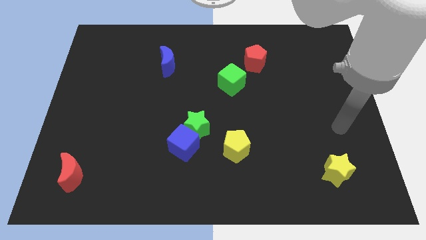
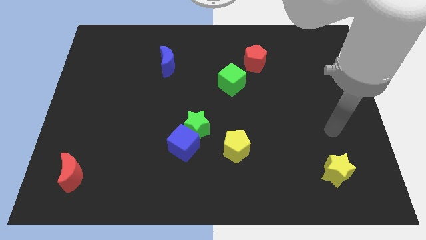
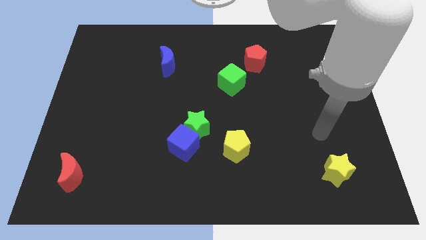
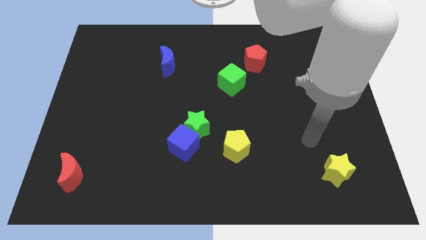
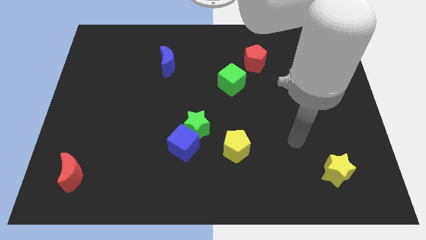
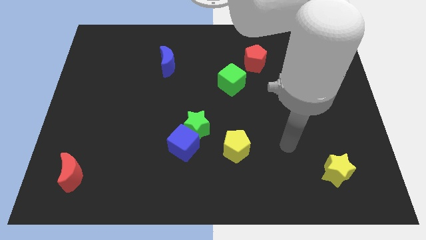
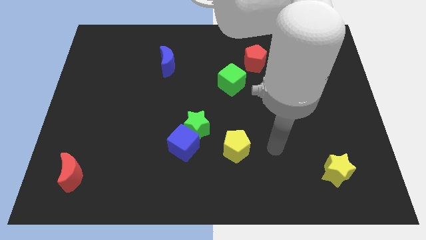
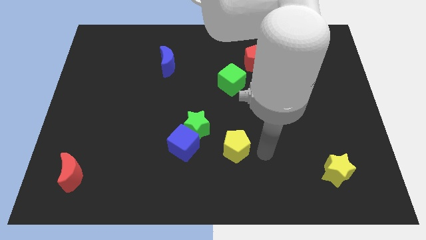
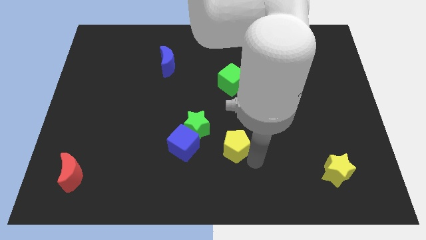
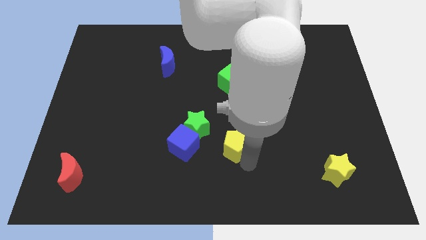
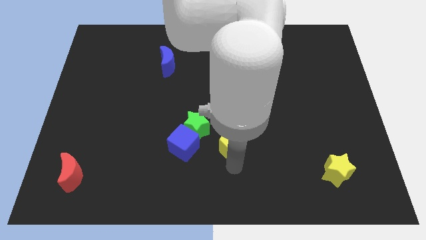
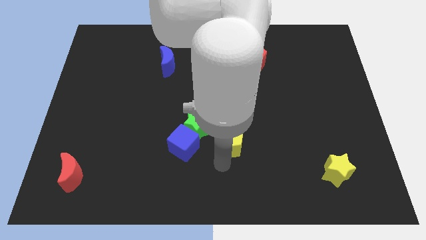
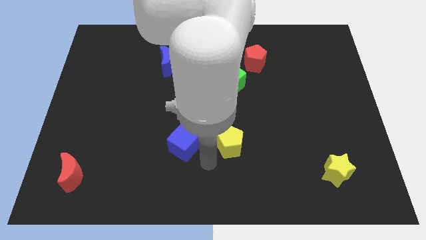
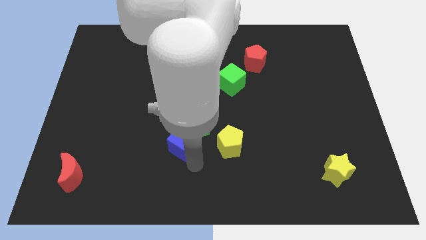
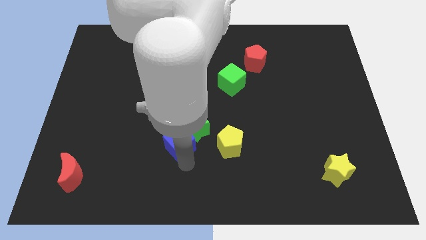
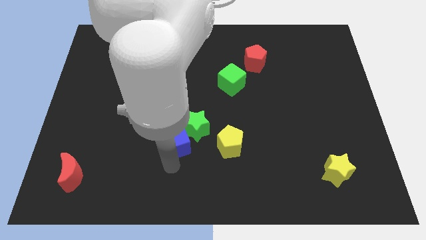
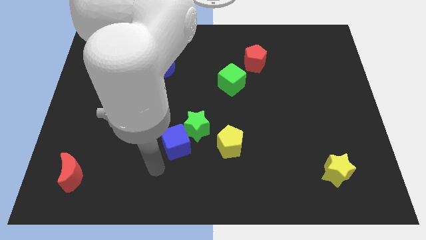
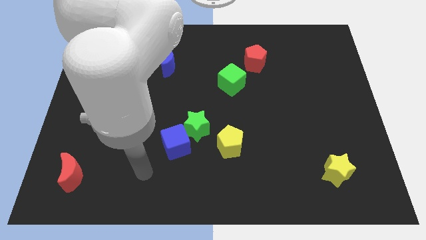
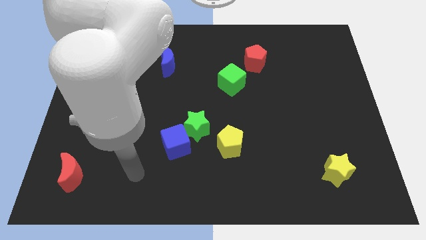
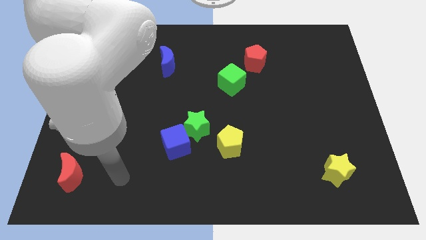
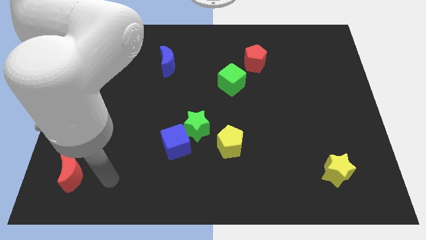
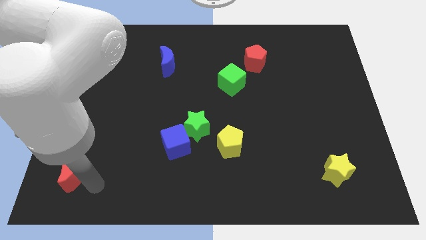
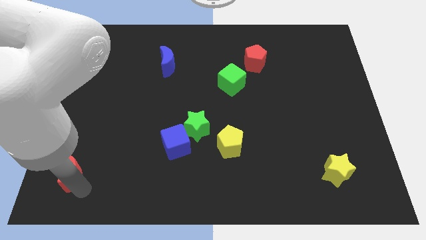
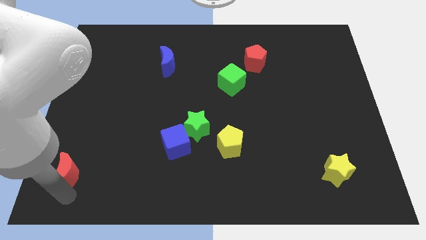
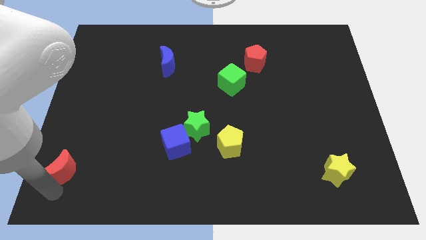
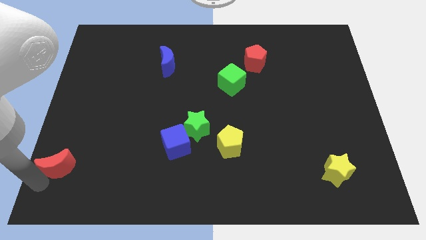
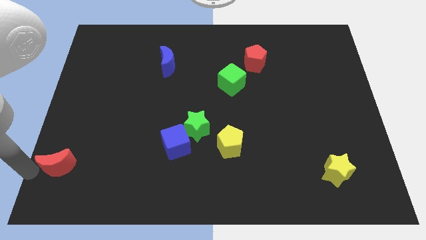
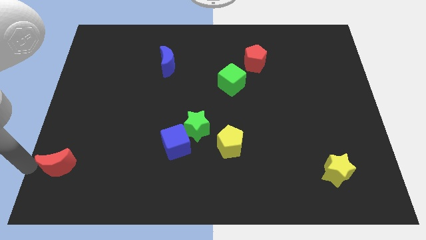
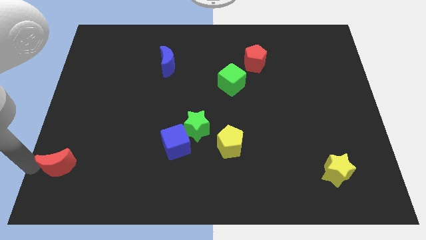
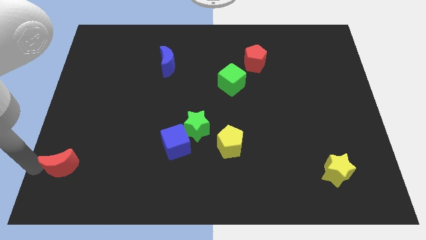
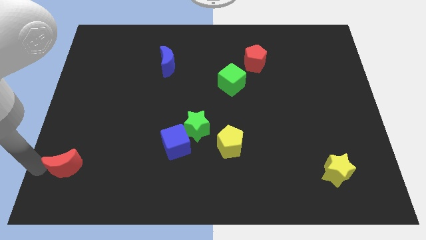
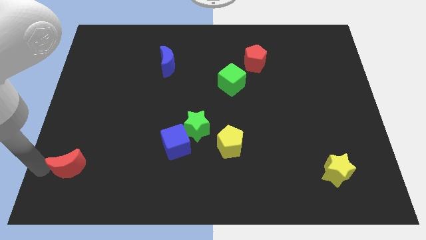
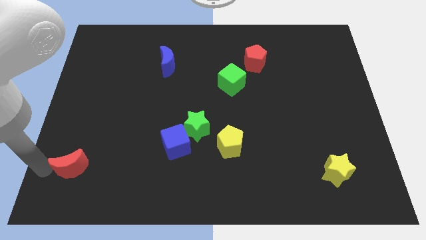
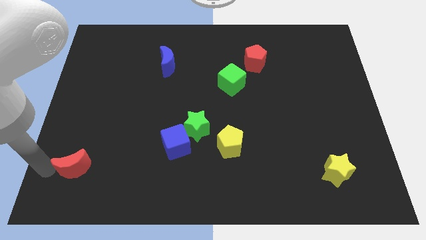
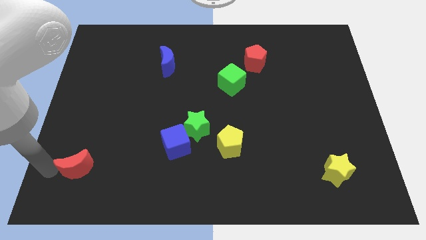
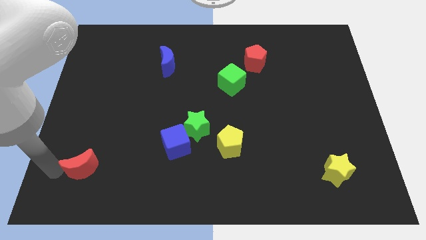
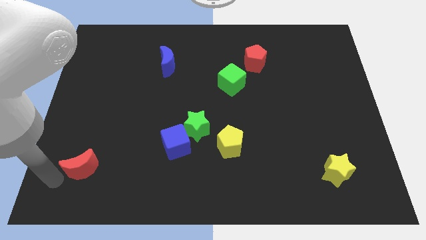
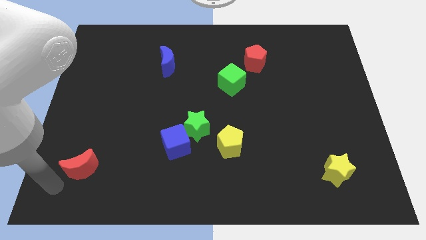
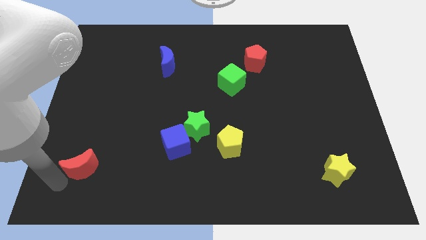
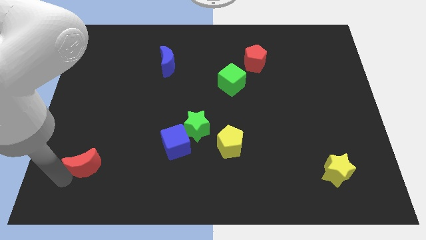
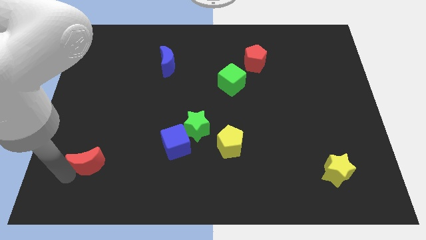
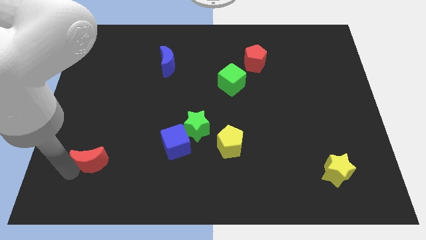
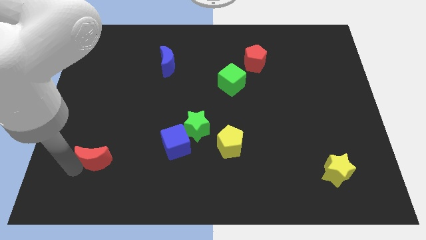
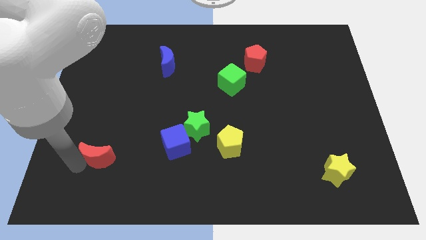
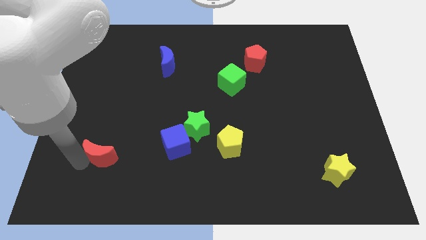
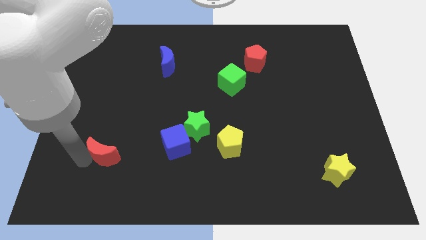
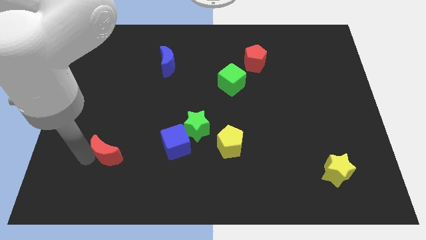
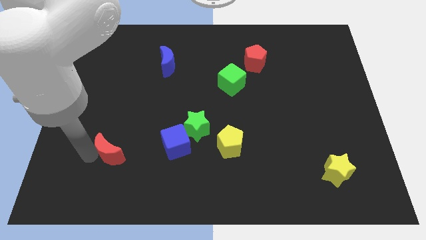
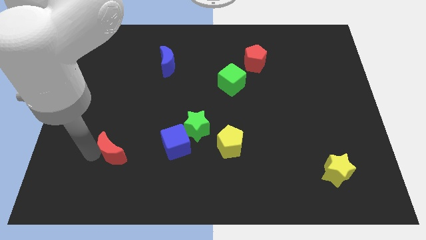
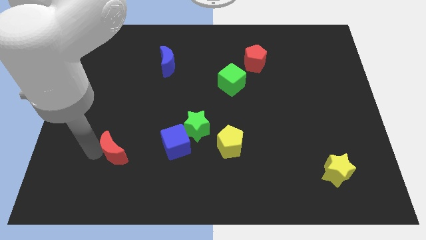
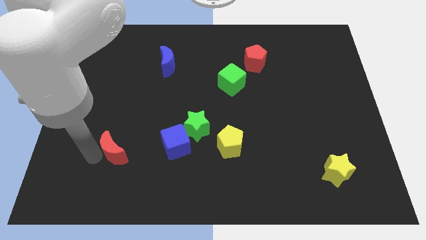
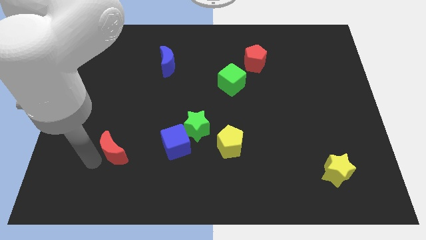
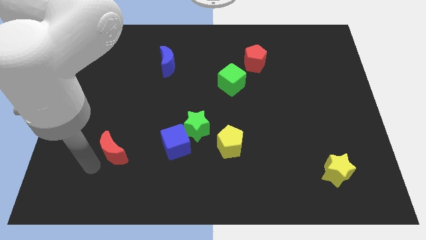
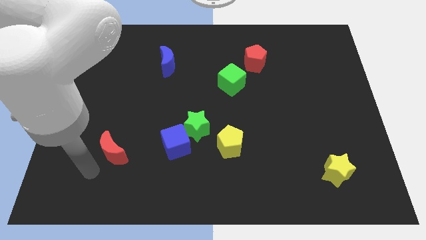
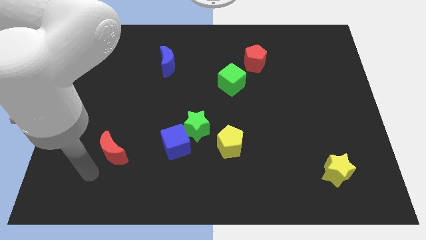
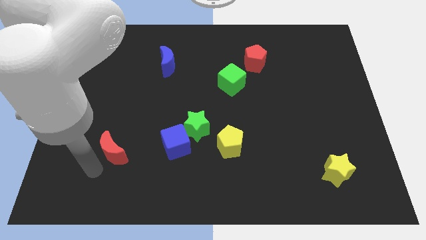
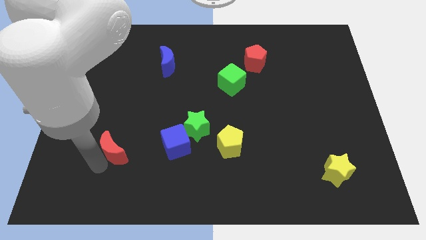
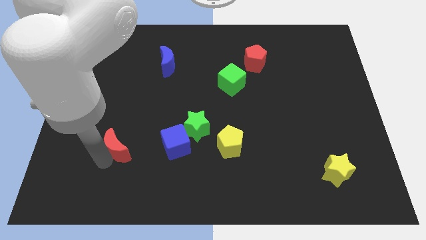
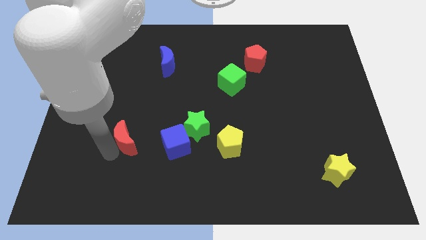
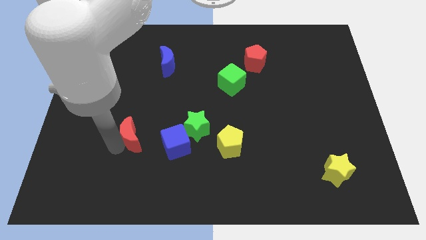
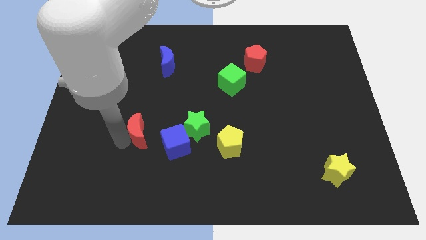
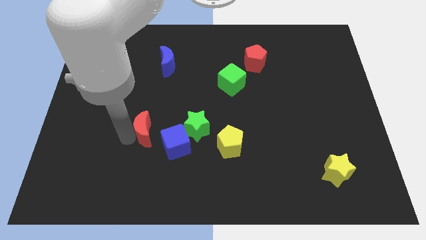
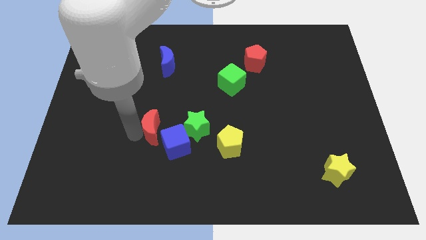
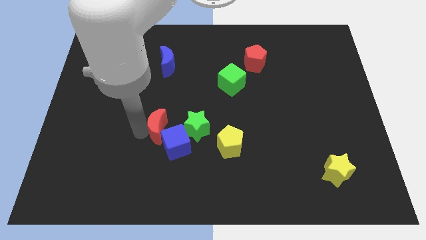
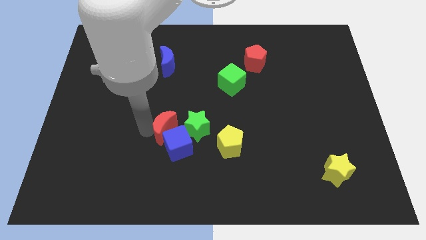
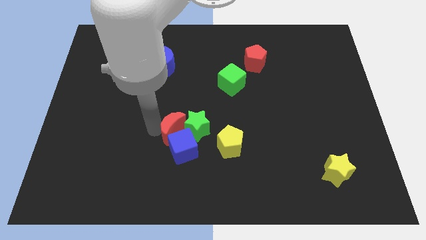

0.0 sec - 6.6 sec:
move the red moon next to the green star

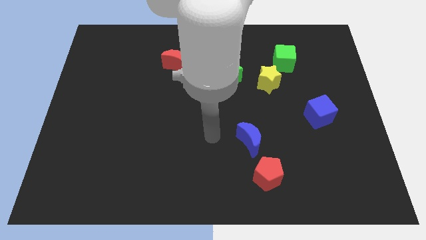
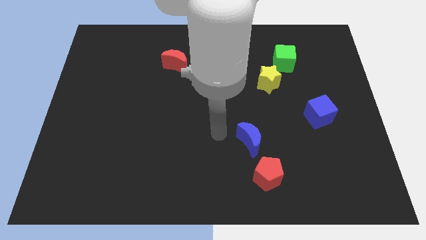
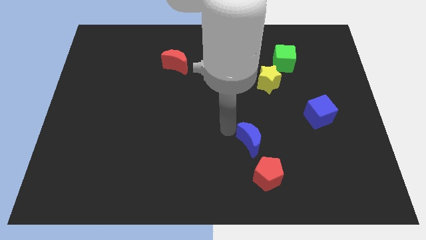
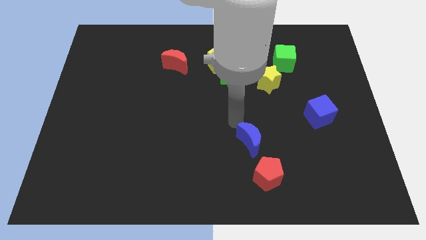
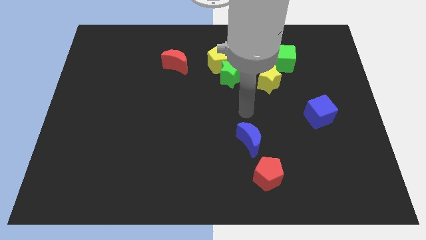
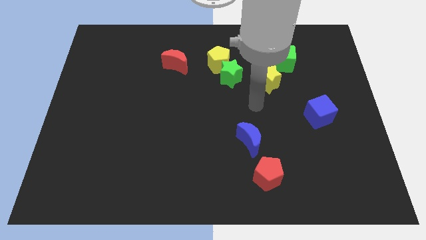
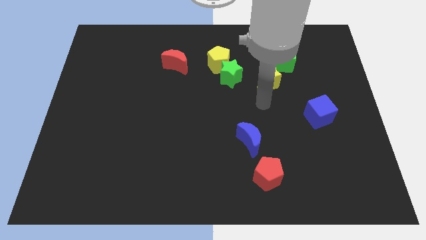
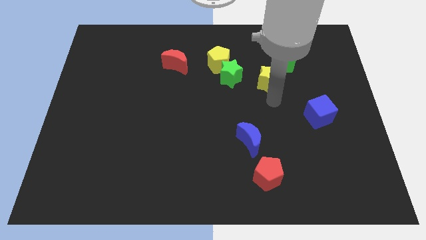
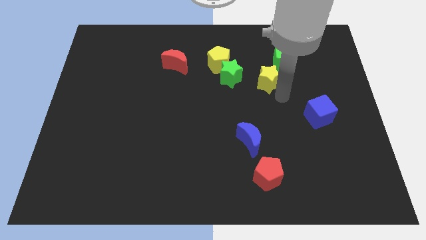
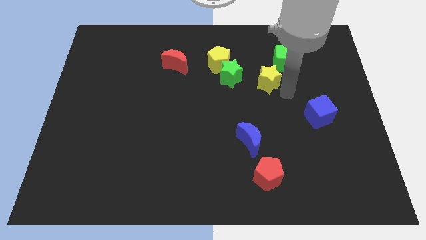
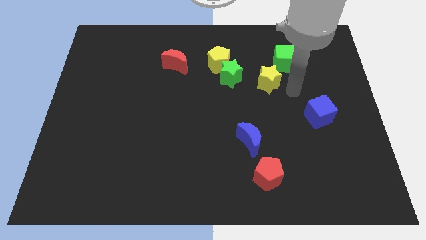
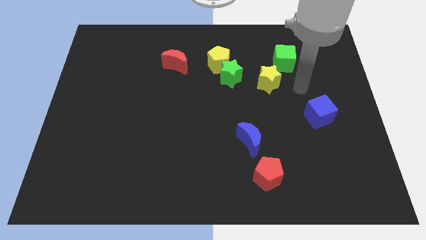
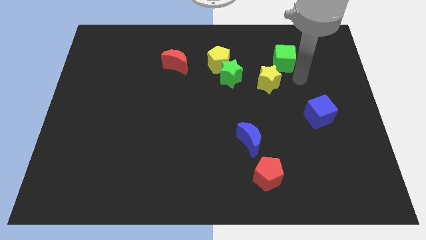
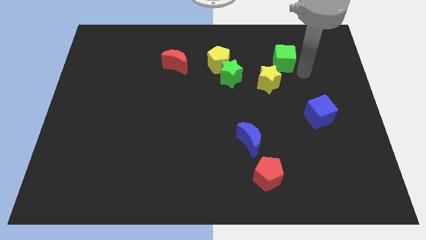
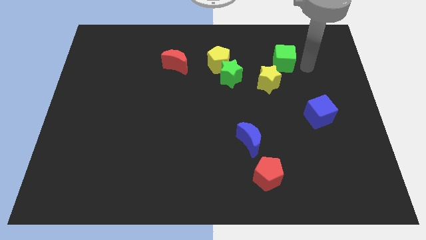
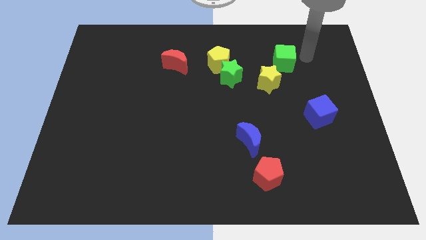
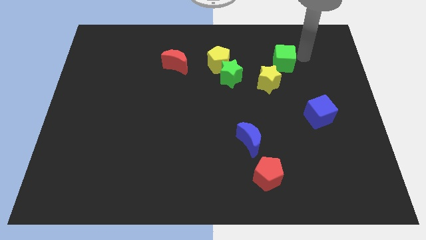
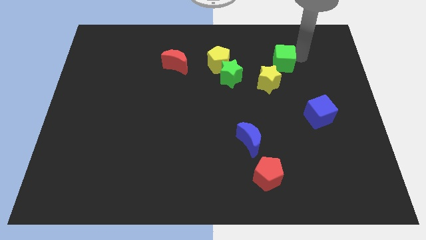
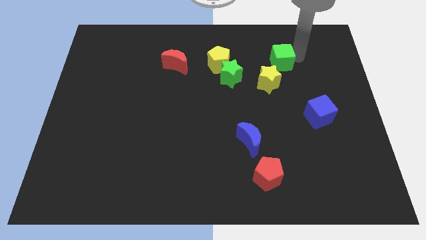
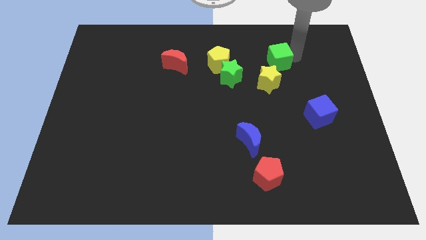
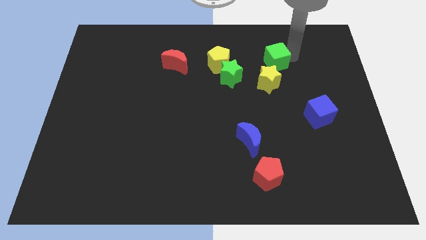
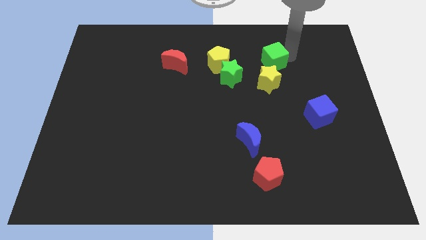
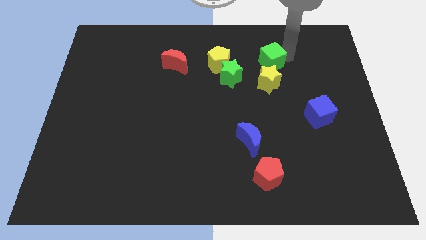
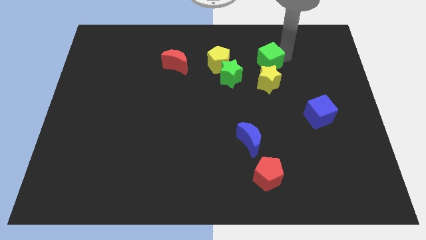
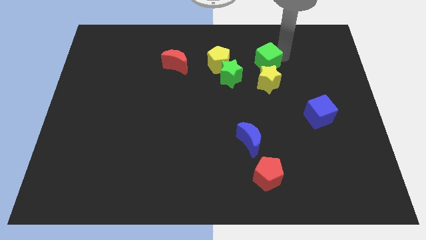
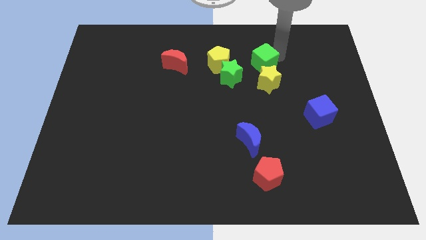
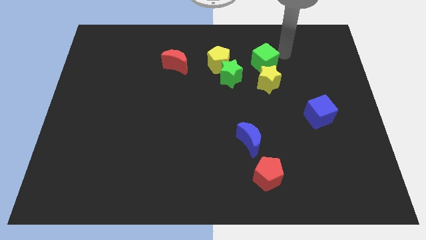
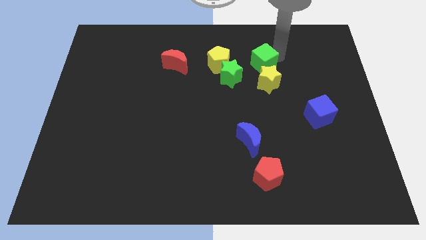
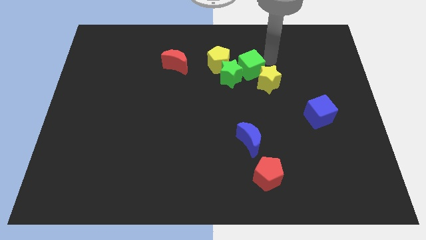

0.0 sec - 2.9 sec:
put the green cube close to the green star
